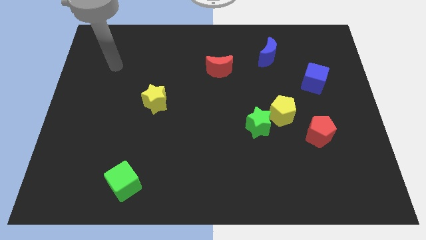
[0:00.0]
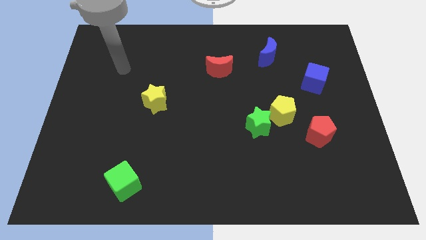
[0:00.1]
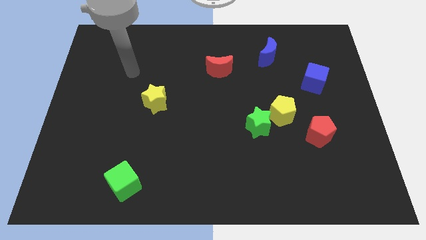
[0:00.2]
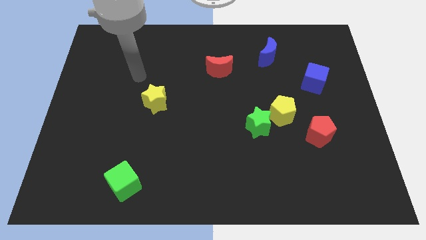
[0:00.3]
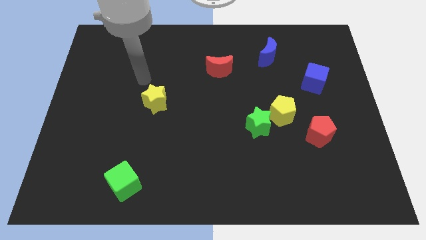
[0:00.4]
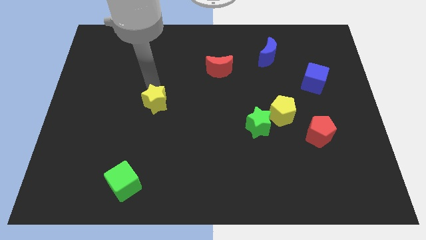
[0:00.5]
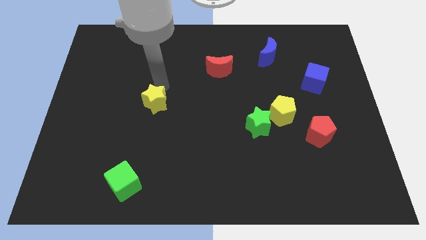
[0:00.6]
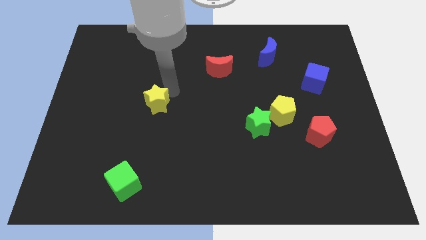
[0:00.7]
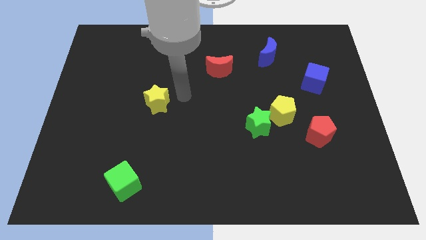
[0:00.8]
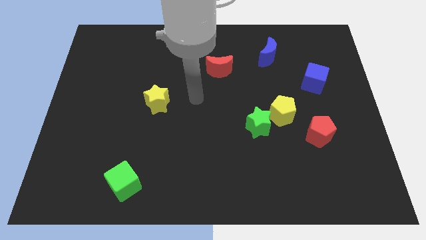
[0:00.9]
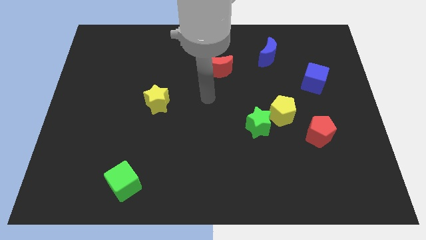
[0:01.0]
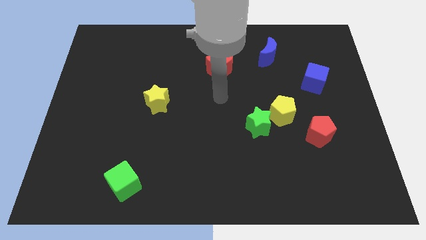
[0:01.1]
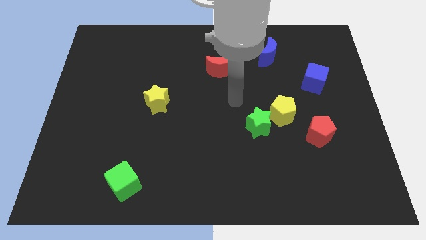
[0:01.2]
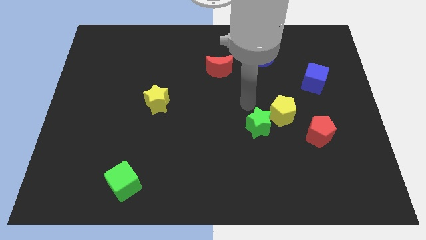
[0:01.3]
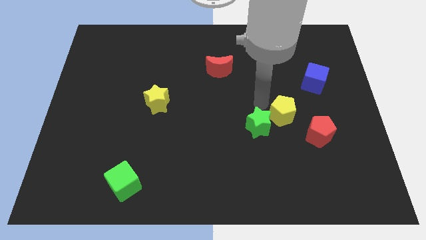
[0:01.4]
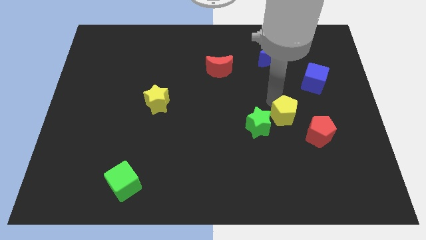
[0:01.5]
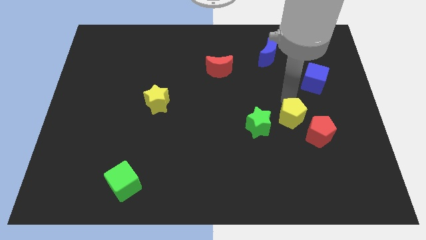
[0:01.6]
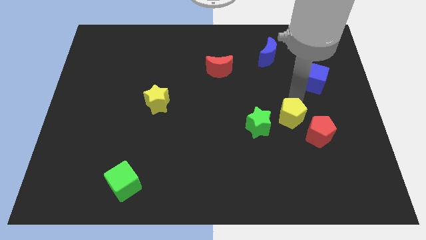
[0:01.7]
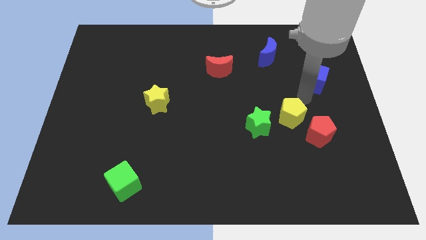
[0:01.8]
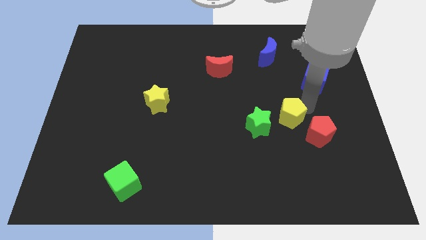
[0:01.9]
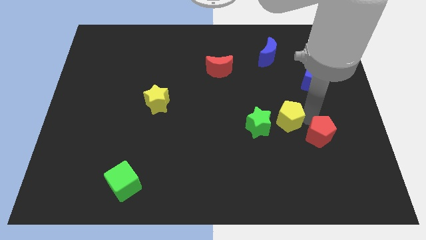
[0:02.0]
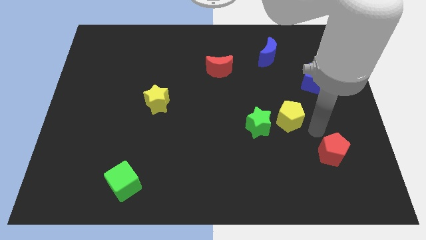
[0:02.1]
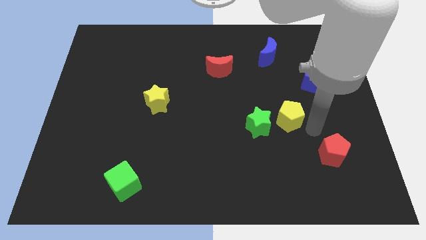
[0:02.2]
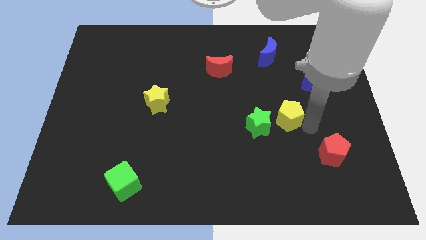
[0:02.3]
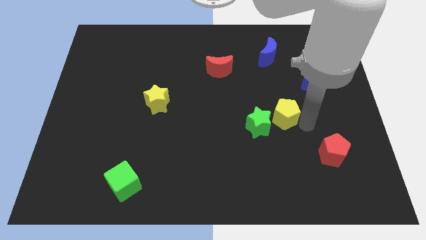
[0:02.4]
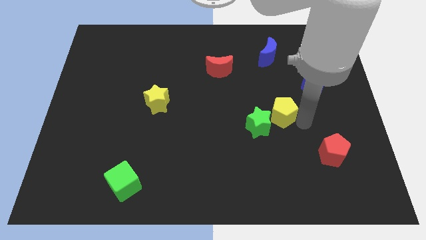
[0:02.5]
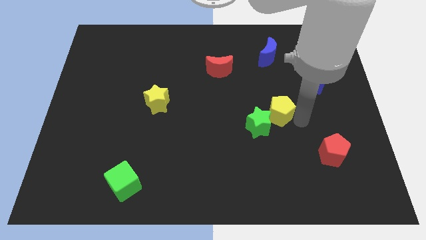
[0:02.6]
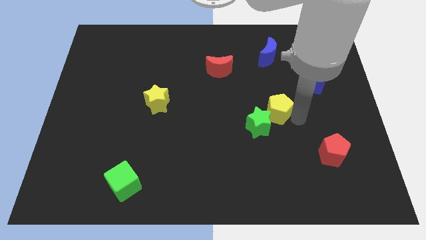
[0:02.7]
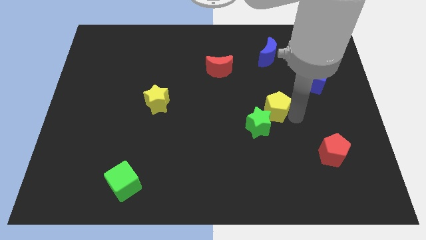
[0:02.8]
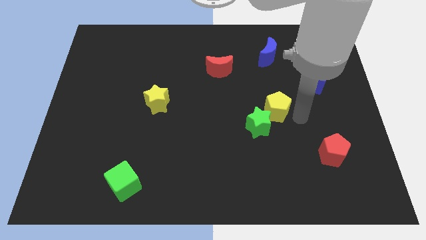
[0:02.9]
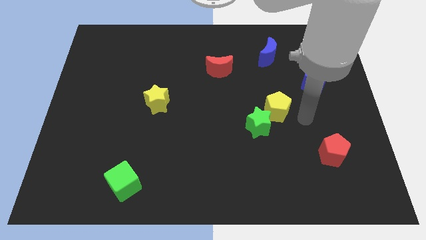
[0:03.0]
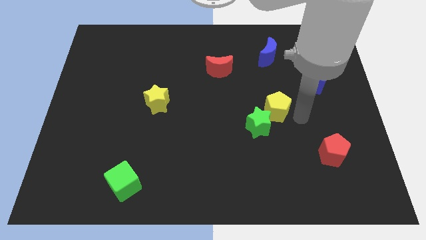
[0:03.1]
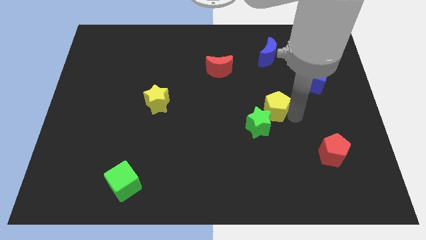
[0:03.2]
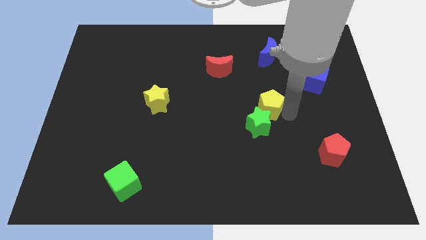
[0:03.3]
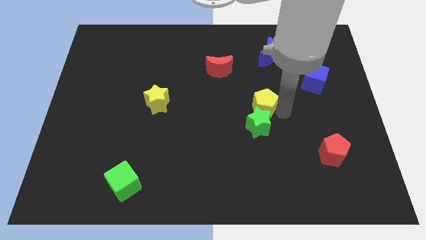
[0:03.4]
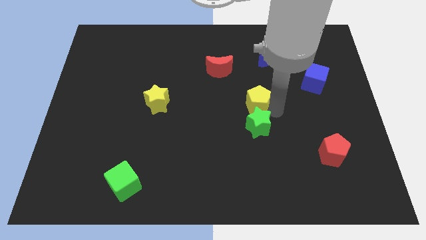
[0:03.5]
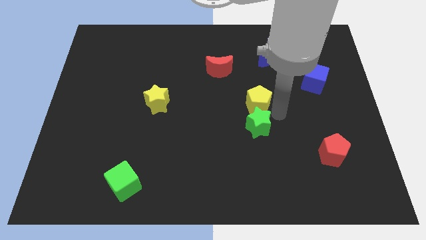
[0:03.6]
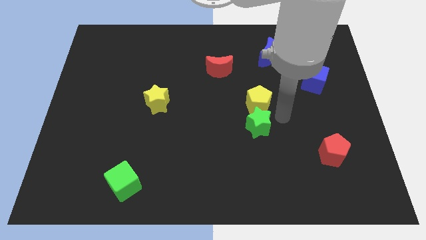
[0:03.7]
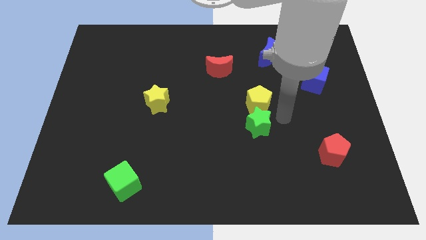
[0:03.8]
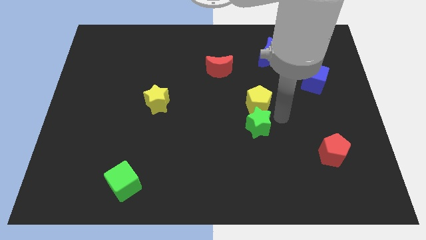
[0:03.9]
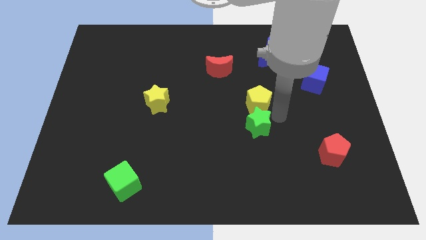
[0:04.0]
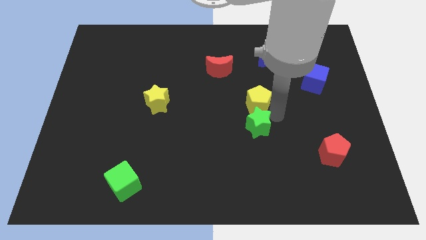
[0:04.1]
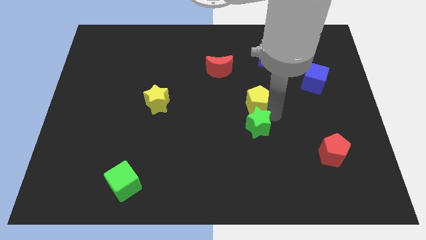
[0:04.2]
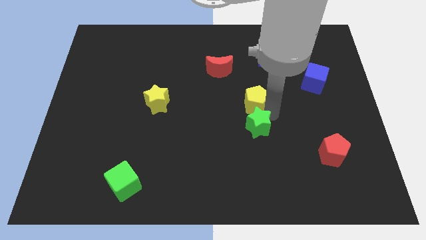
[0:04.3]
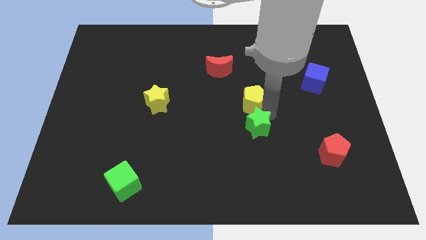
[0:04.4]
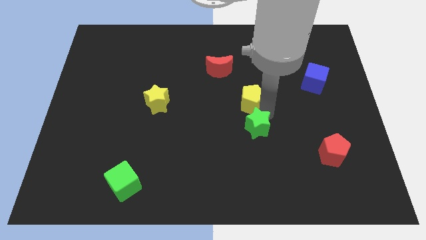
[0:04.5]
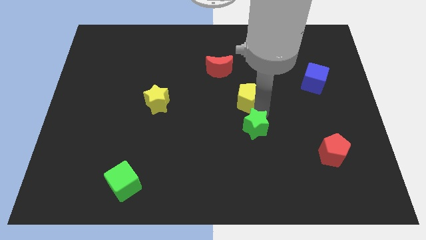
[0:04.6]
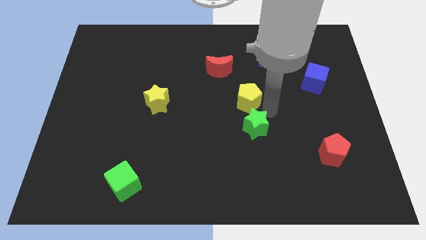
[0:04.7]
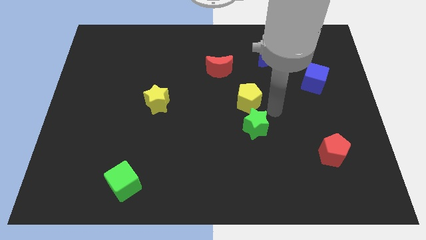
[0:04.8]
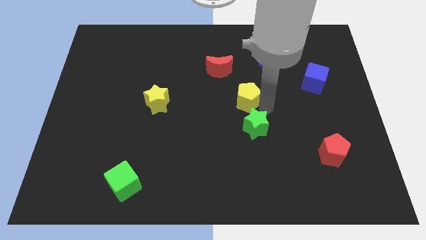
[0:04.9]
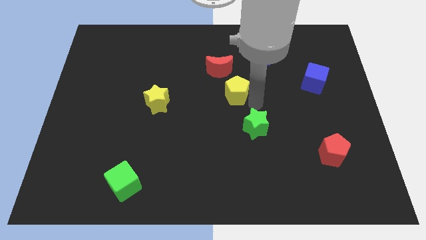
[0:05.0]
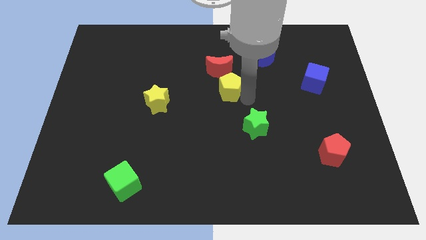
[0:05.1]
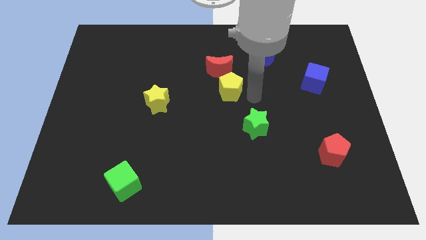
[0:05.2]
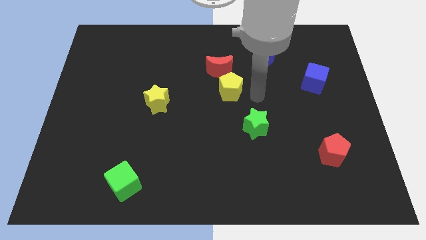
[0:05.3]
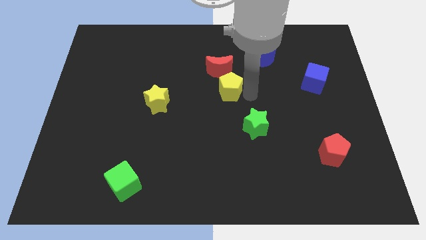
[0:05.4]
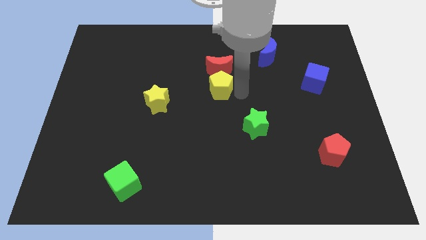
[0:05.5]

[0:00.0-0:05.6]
put the yellow pentagon to the bottom left side of the red moon

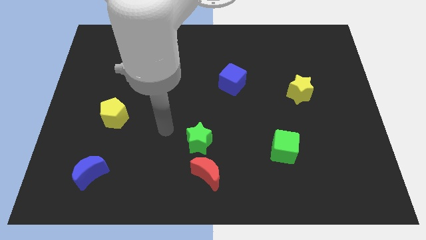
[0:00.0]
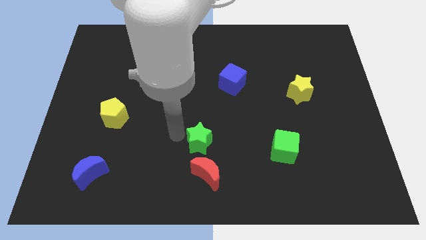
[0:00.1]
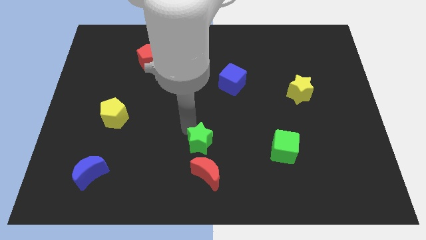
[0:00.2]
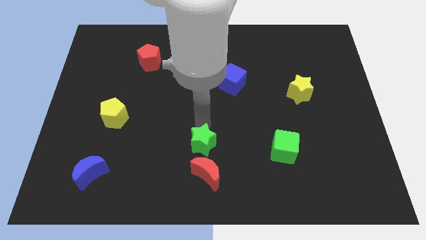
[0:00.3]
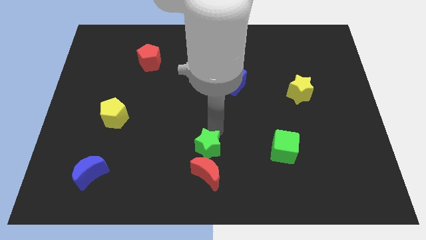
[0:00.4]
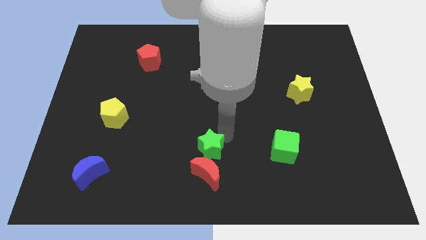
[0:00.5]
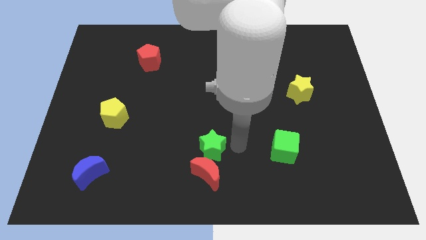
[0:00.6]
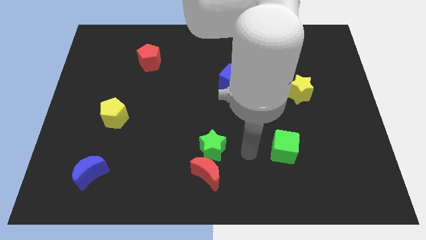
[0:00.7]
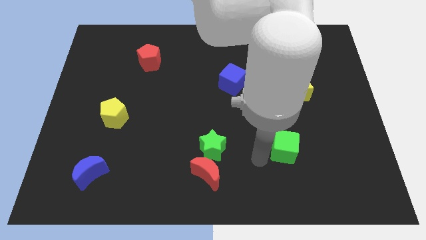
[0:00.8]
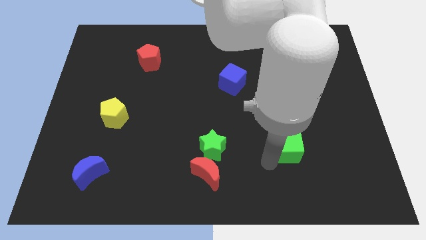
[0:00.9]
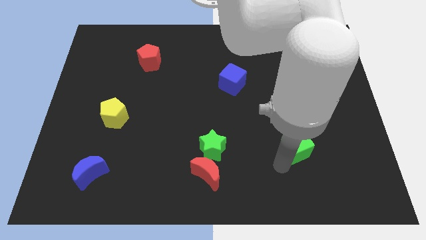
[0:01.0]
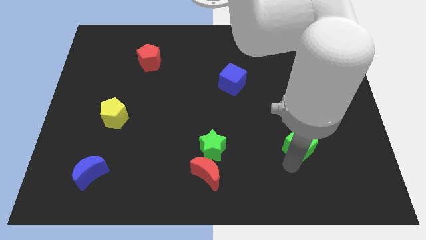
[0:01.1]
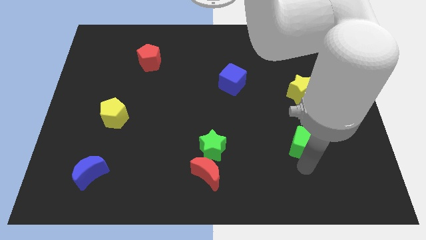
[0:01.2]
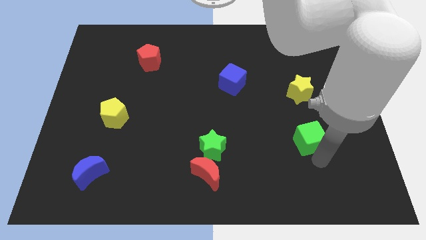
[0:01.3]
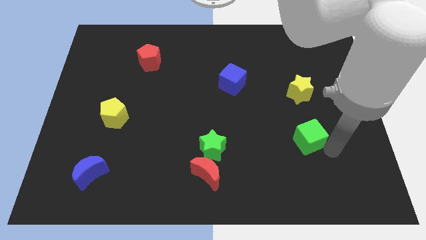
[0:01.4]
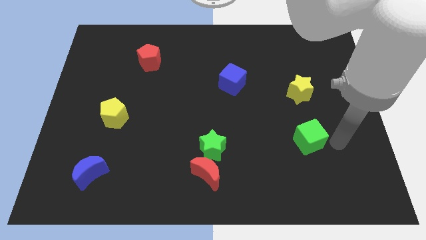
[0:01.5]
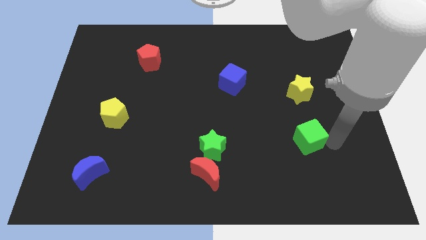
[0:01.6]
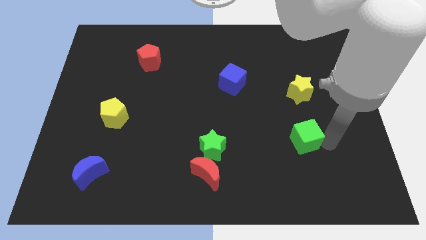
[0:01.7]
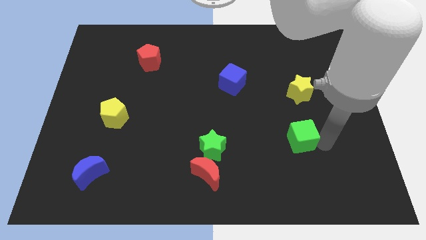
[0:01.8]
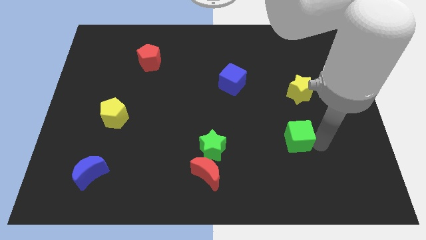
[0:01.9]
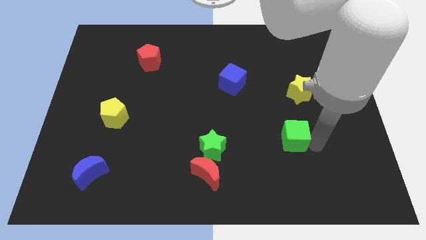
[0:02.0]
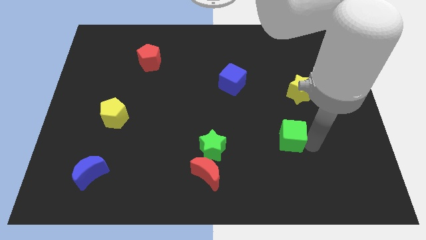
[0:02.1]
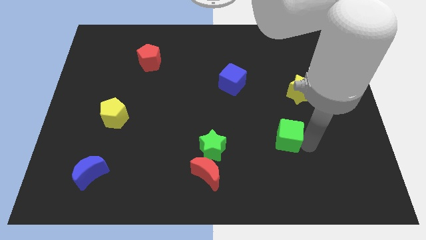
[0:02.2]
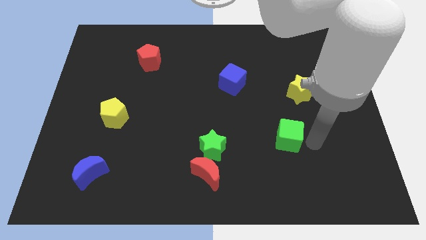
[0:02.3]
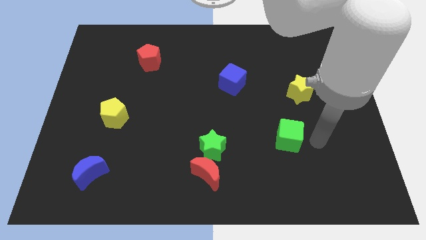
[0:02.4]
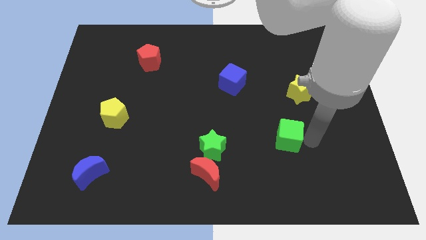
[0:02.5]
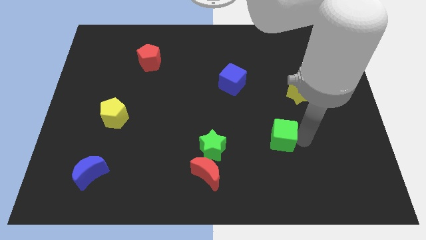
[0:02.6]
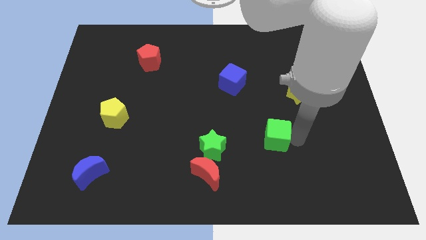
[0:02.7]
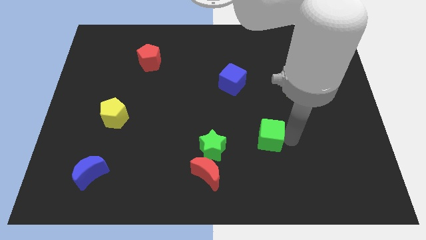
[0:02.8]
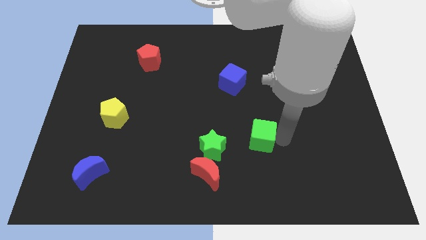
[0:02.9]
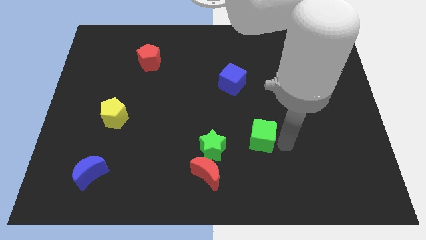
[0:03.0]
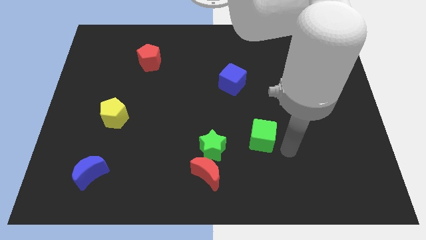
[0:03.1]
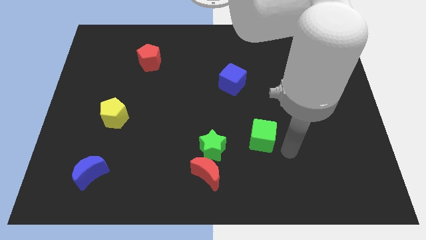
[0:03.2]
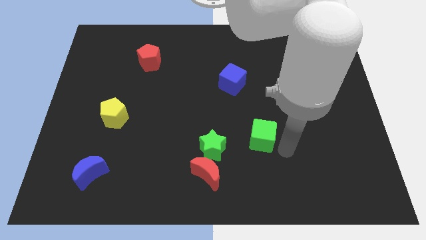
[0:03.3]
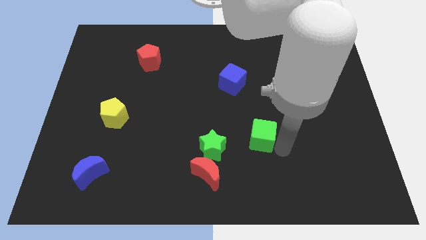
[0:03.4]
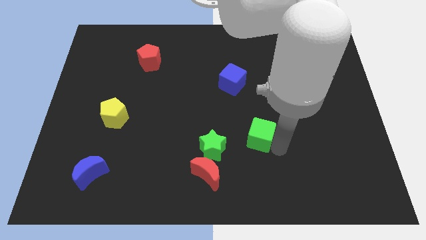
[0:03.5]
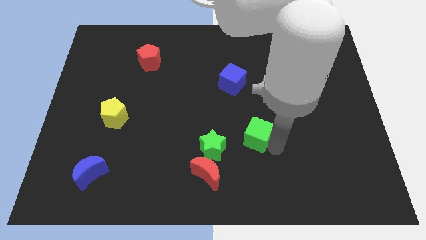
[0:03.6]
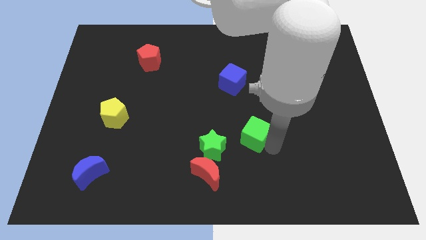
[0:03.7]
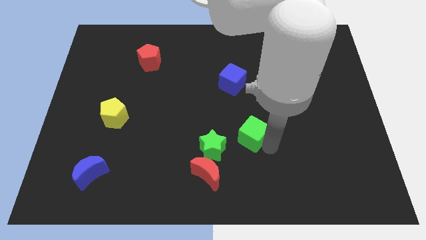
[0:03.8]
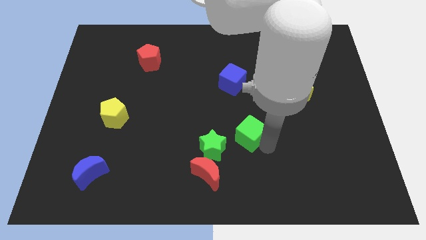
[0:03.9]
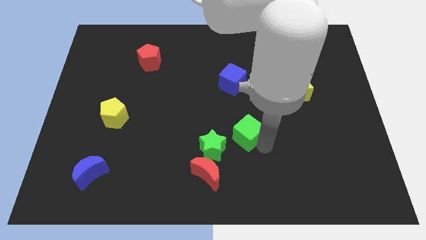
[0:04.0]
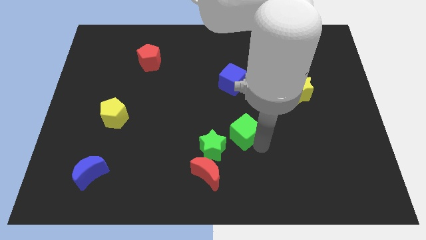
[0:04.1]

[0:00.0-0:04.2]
push the green cube below the blue cube
